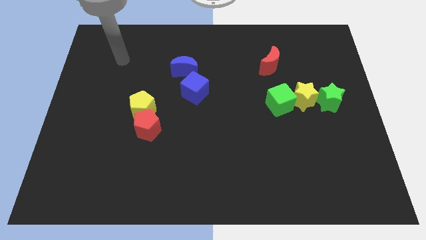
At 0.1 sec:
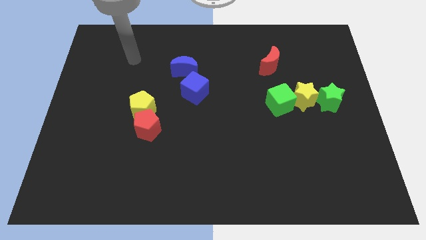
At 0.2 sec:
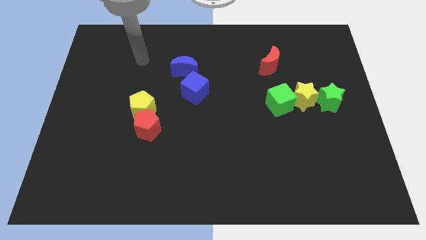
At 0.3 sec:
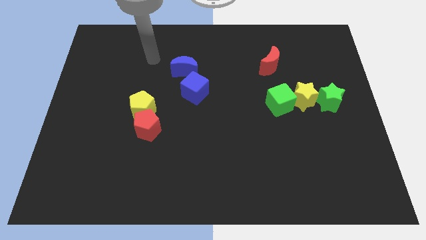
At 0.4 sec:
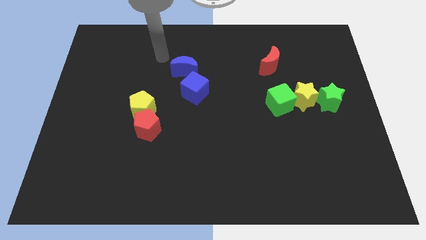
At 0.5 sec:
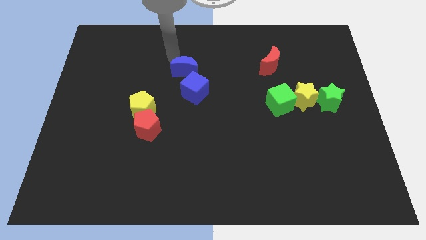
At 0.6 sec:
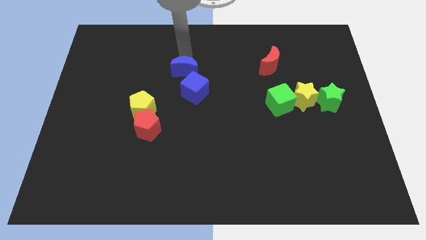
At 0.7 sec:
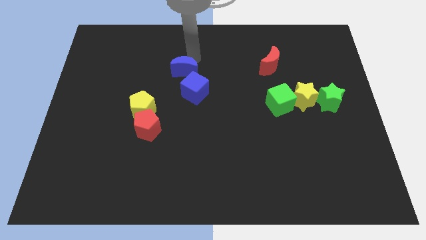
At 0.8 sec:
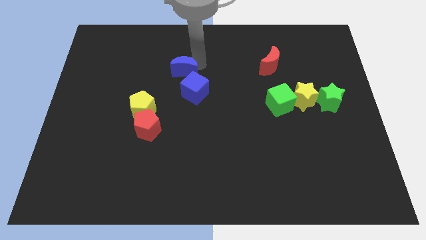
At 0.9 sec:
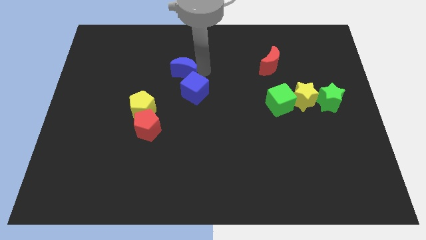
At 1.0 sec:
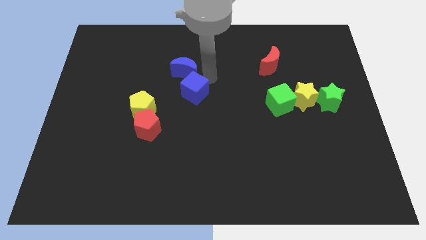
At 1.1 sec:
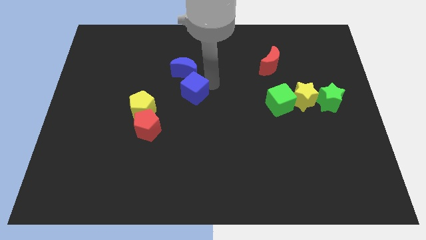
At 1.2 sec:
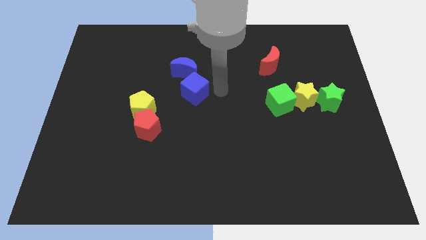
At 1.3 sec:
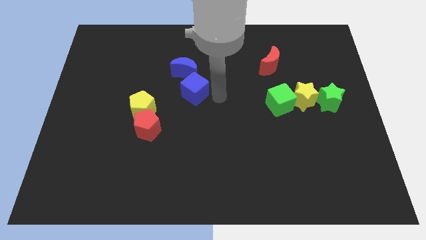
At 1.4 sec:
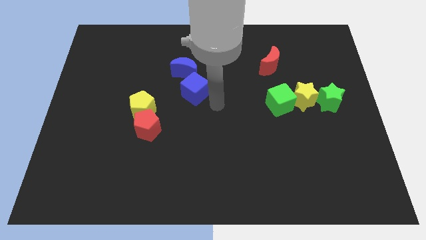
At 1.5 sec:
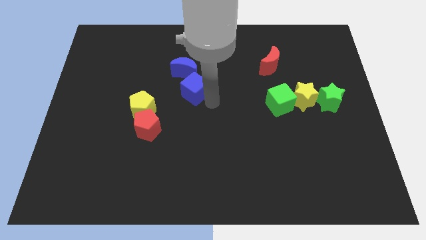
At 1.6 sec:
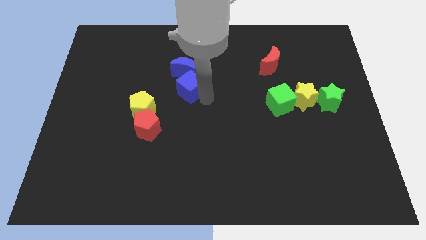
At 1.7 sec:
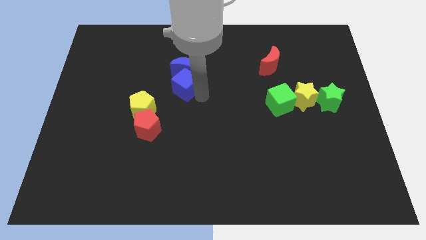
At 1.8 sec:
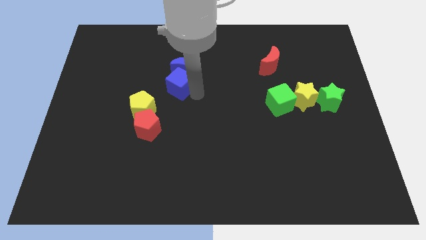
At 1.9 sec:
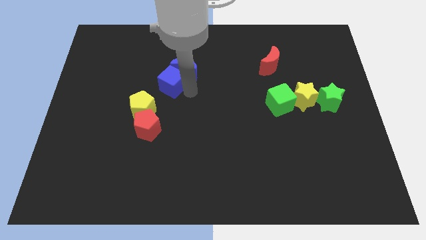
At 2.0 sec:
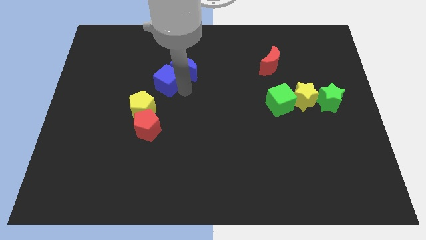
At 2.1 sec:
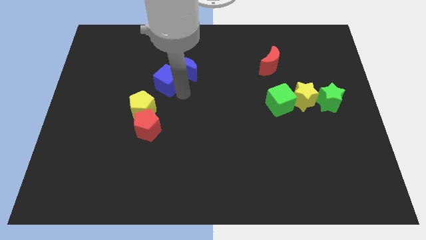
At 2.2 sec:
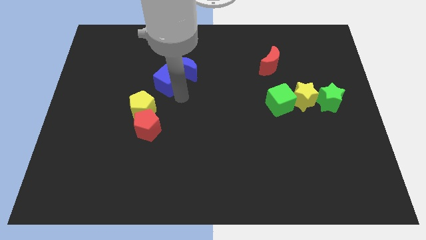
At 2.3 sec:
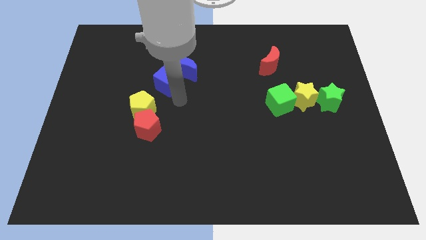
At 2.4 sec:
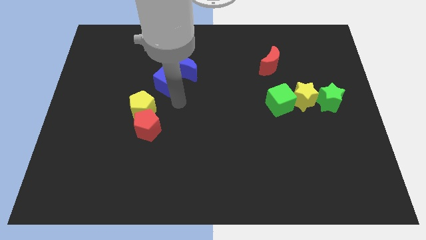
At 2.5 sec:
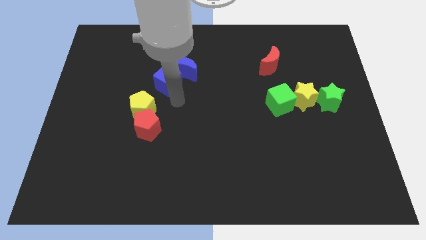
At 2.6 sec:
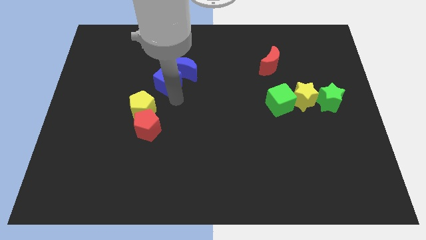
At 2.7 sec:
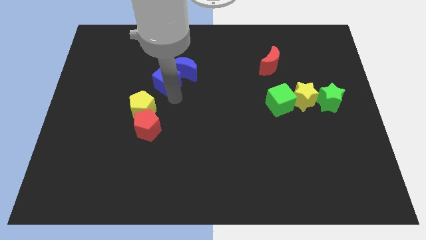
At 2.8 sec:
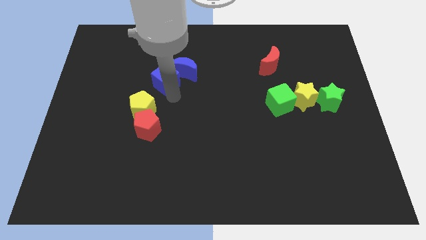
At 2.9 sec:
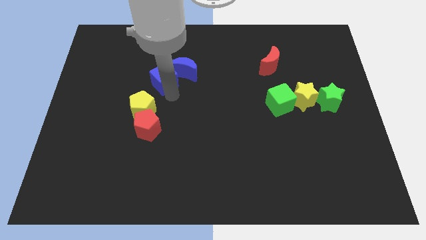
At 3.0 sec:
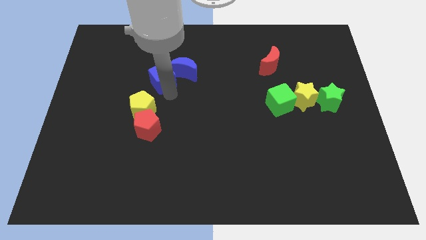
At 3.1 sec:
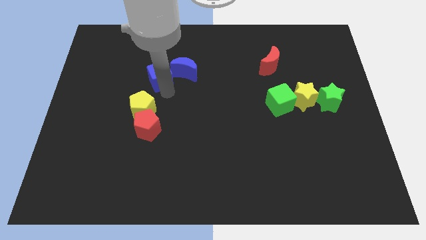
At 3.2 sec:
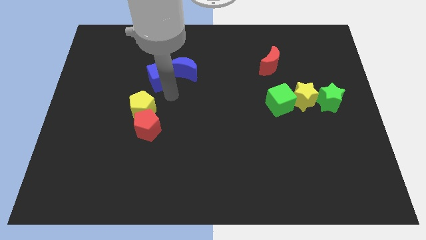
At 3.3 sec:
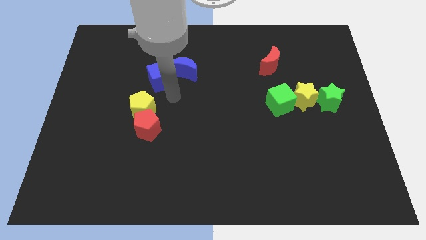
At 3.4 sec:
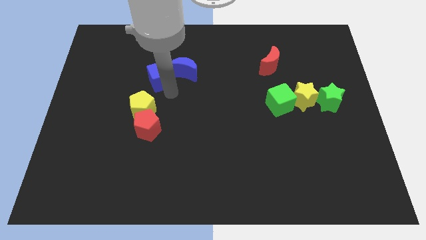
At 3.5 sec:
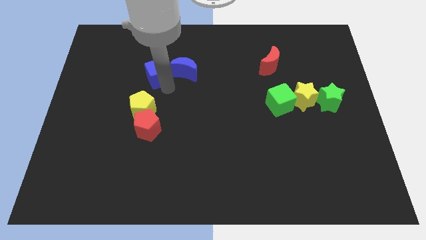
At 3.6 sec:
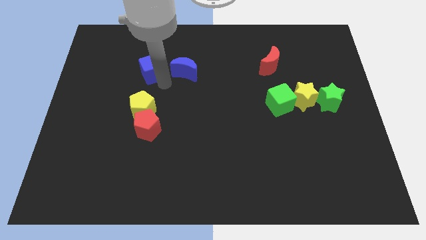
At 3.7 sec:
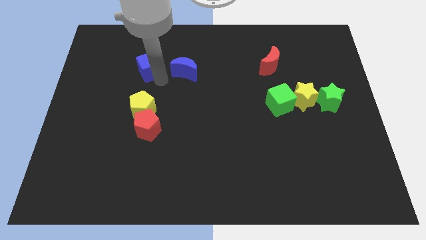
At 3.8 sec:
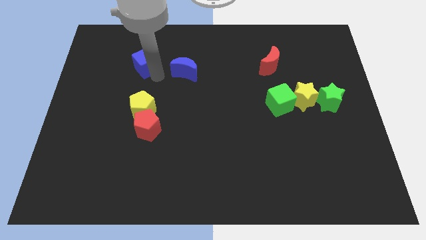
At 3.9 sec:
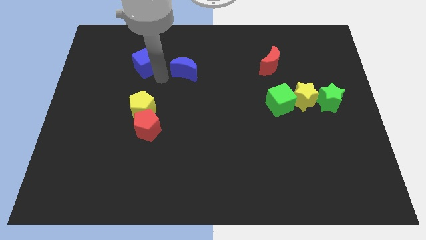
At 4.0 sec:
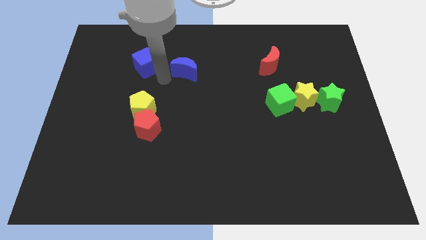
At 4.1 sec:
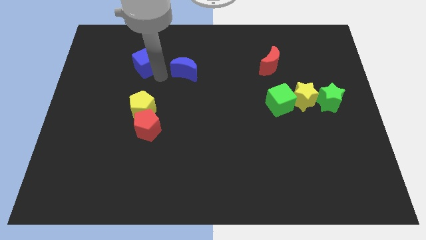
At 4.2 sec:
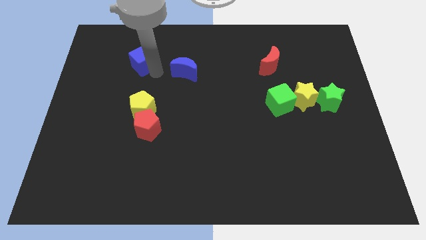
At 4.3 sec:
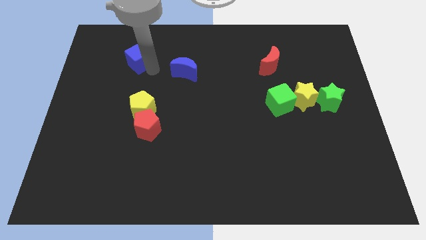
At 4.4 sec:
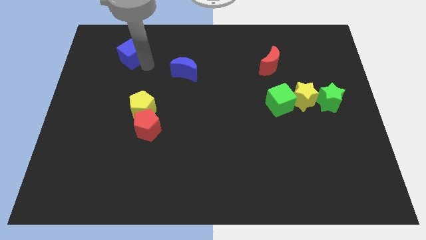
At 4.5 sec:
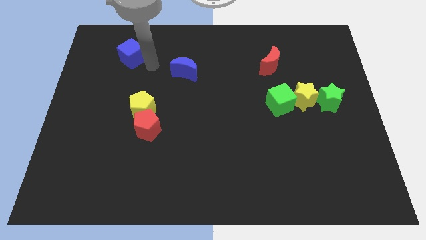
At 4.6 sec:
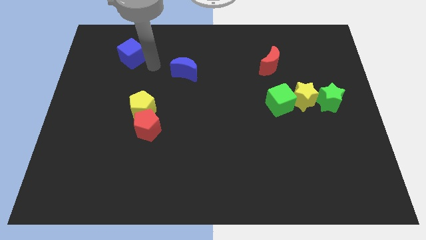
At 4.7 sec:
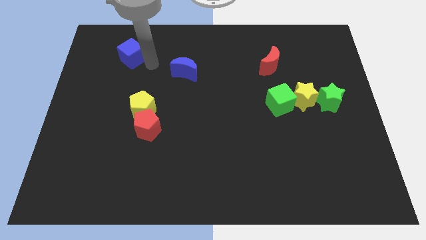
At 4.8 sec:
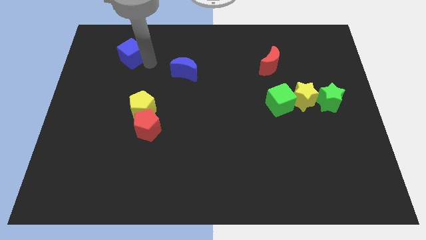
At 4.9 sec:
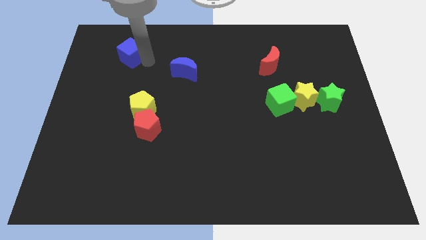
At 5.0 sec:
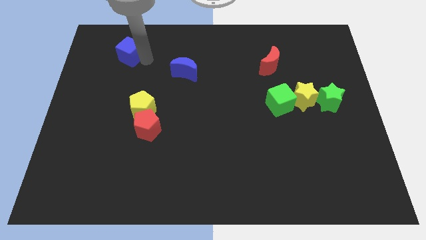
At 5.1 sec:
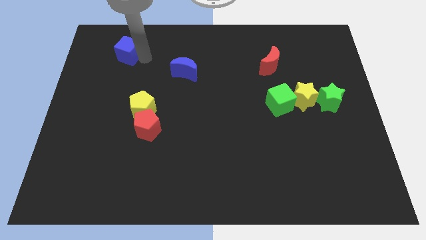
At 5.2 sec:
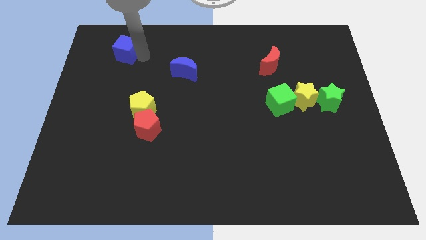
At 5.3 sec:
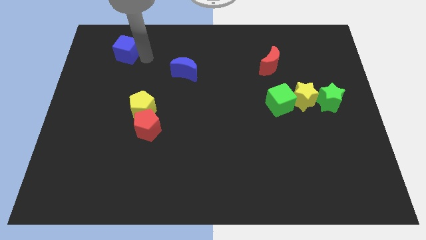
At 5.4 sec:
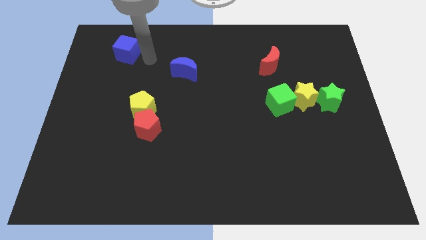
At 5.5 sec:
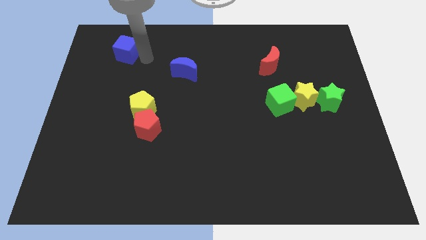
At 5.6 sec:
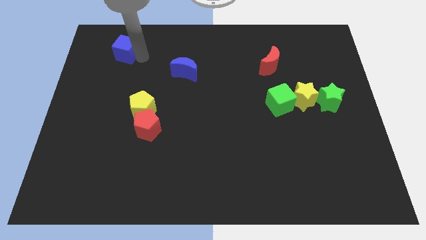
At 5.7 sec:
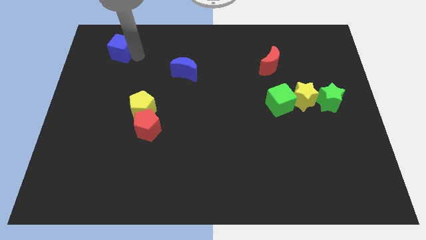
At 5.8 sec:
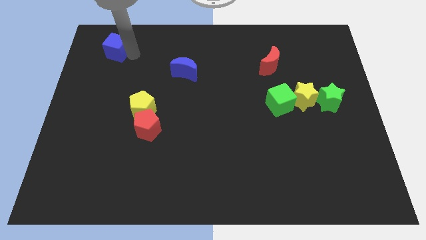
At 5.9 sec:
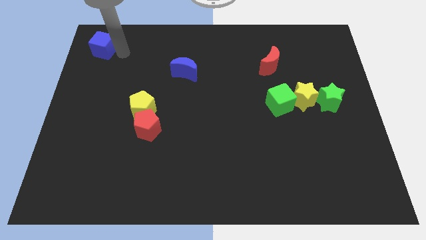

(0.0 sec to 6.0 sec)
push the blue cube to the top left

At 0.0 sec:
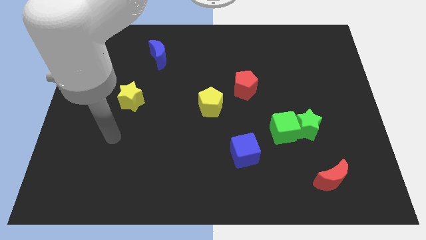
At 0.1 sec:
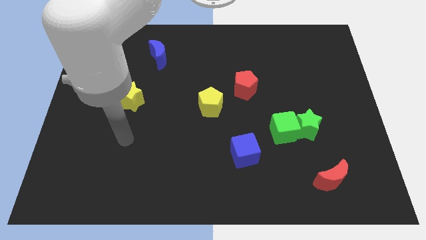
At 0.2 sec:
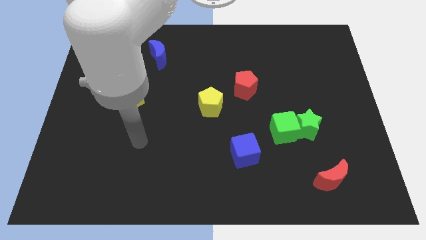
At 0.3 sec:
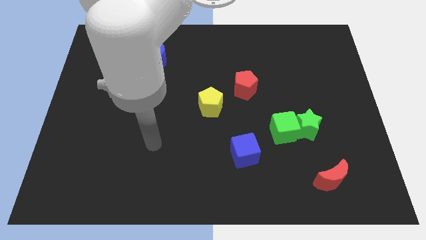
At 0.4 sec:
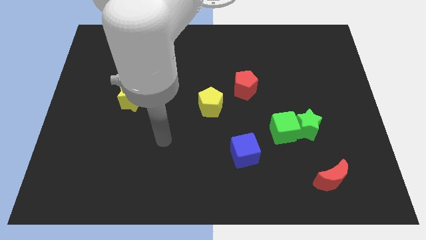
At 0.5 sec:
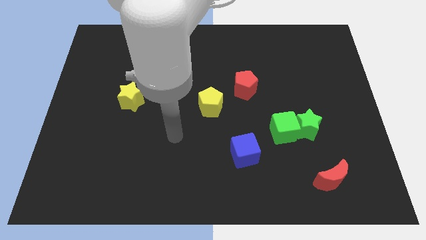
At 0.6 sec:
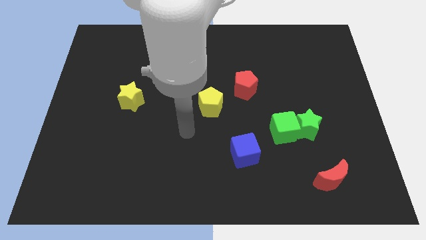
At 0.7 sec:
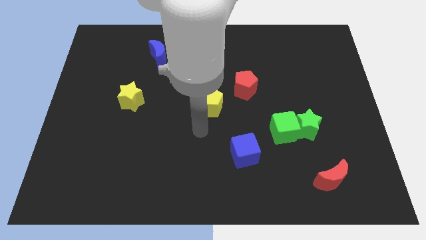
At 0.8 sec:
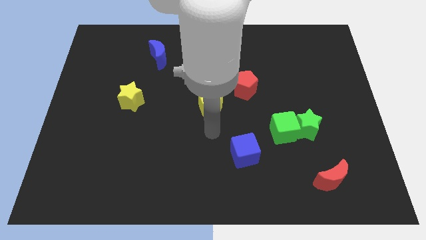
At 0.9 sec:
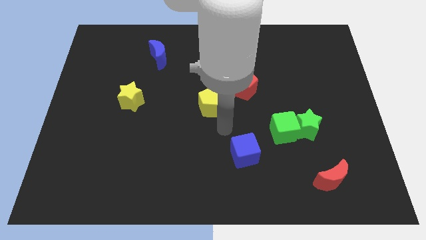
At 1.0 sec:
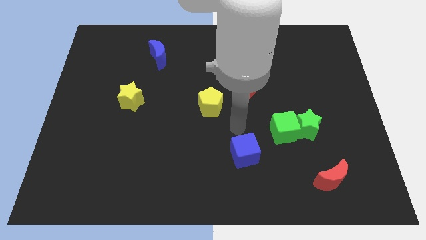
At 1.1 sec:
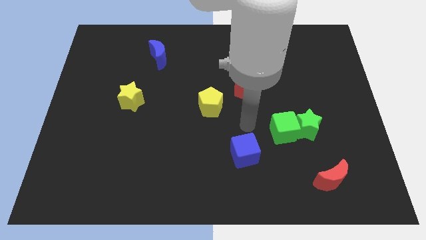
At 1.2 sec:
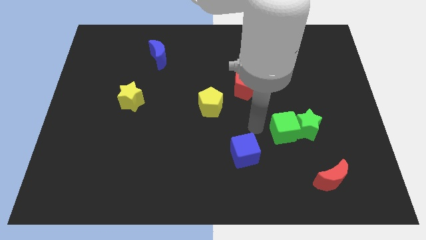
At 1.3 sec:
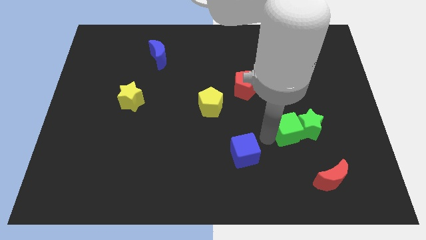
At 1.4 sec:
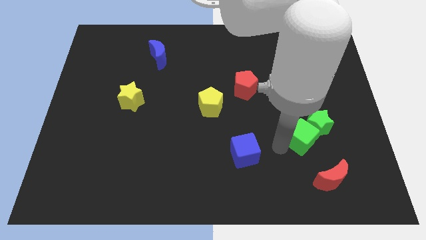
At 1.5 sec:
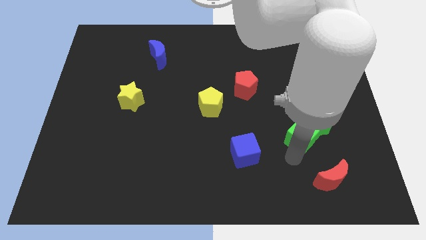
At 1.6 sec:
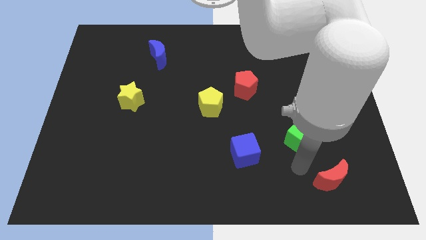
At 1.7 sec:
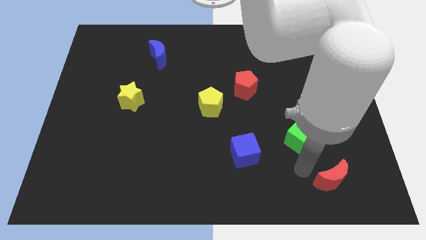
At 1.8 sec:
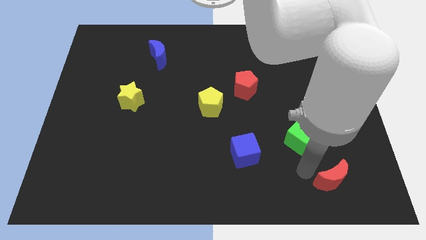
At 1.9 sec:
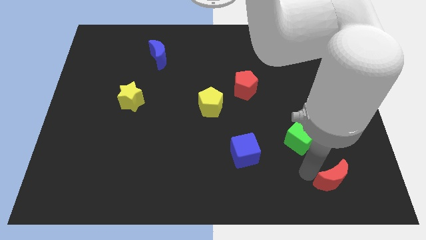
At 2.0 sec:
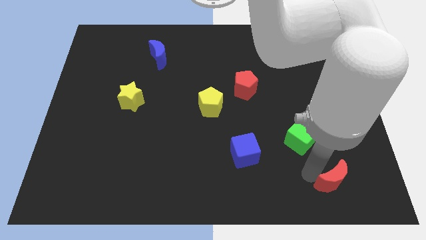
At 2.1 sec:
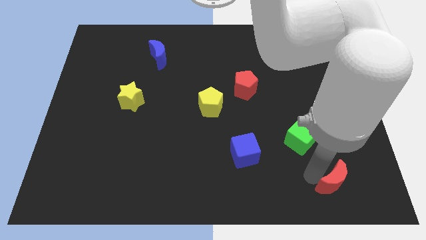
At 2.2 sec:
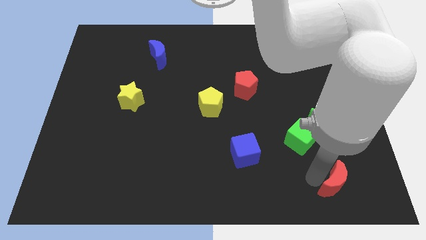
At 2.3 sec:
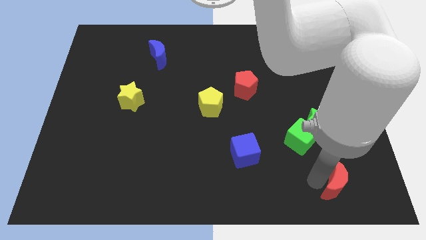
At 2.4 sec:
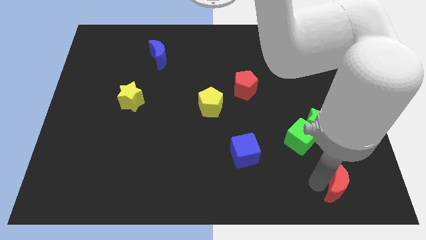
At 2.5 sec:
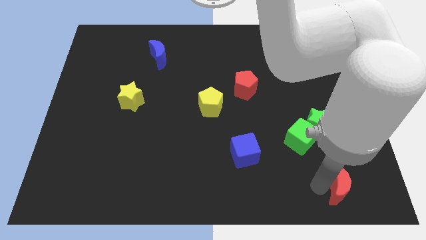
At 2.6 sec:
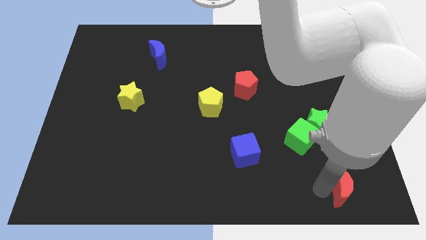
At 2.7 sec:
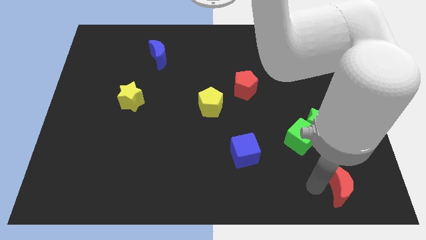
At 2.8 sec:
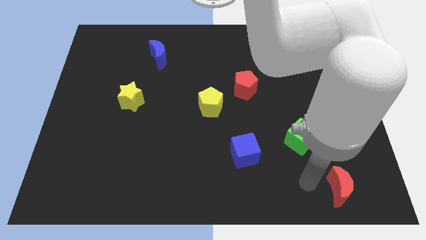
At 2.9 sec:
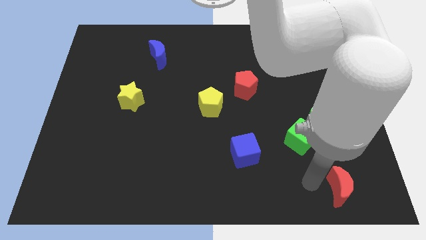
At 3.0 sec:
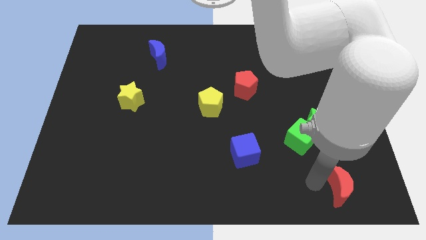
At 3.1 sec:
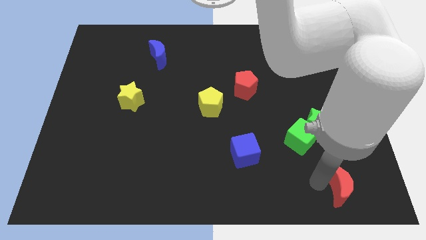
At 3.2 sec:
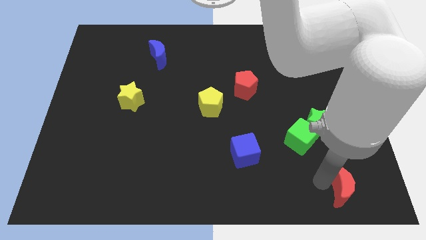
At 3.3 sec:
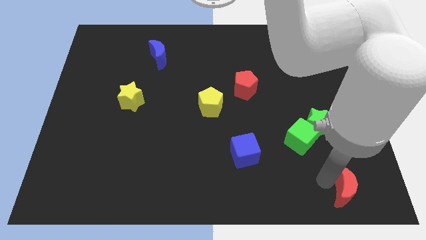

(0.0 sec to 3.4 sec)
slide the red moon to the bottom right of the board
